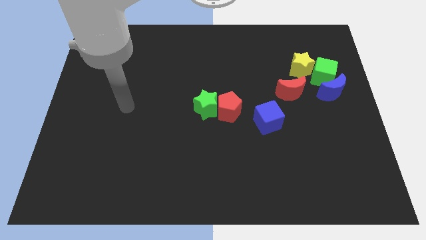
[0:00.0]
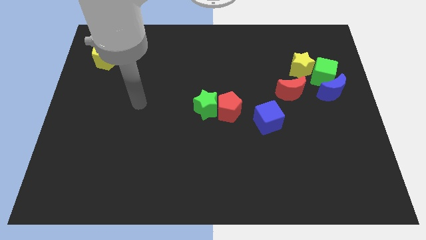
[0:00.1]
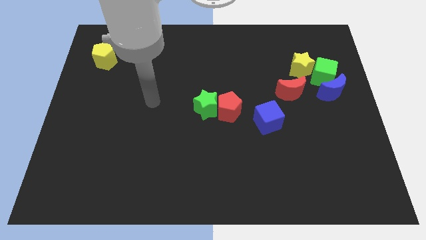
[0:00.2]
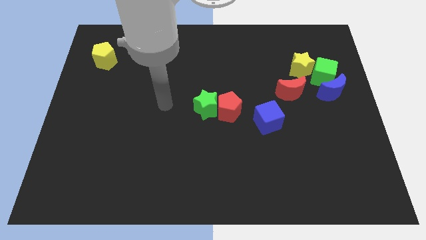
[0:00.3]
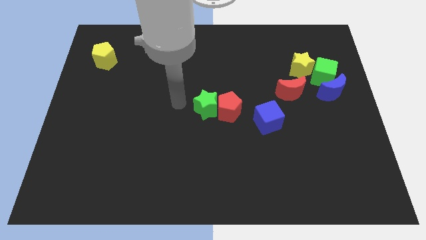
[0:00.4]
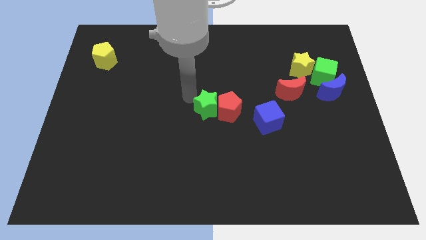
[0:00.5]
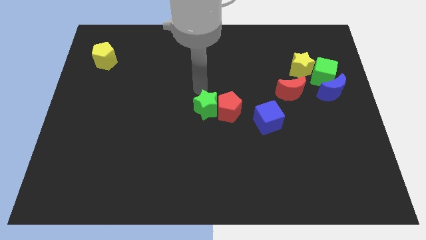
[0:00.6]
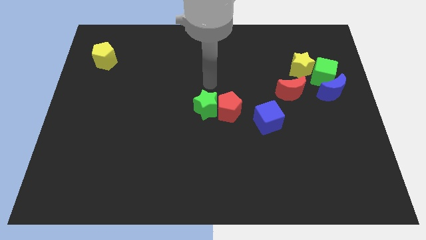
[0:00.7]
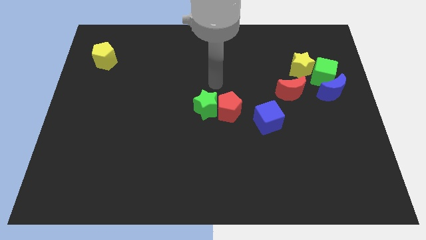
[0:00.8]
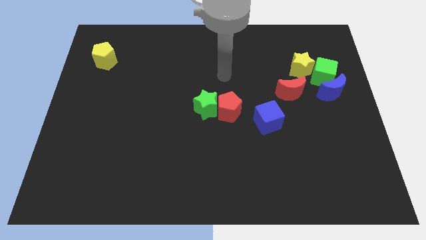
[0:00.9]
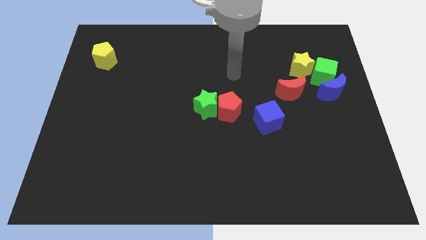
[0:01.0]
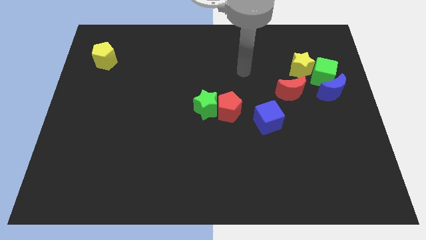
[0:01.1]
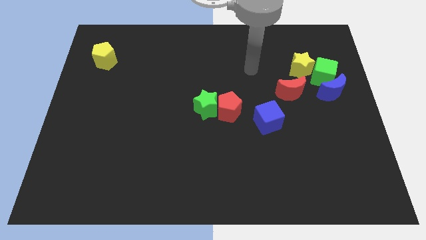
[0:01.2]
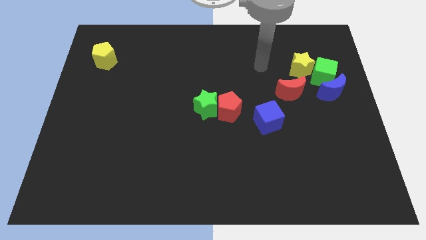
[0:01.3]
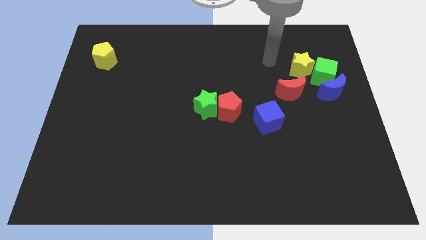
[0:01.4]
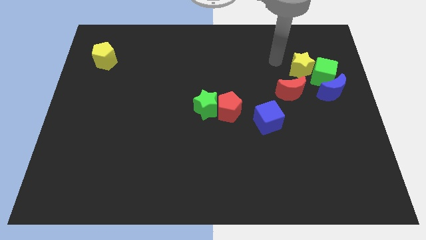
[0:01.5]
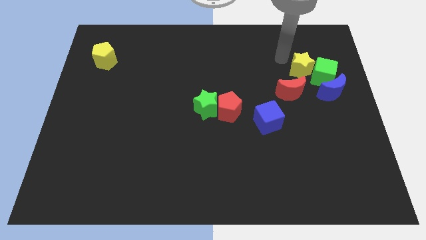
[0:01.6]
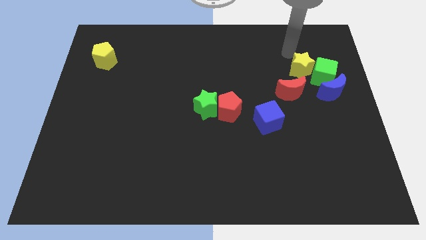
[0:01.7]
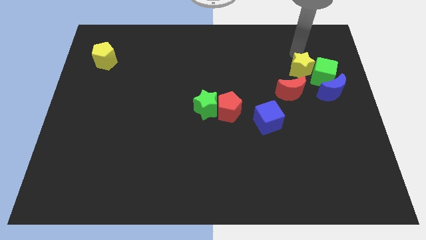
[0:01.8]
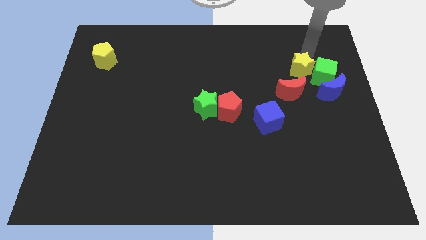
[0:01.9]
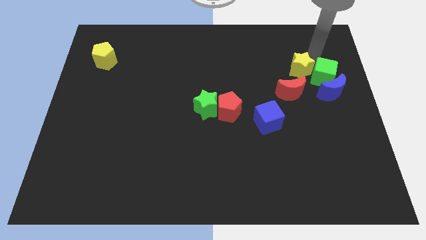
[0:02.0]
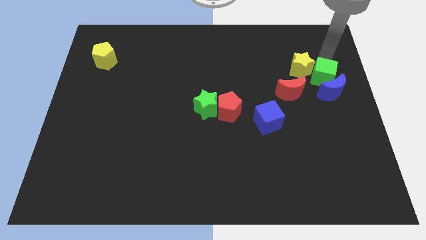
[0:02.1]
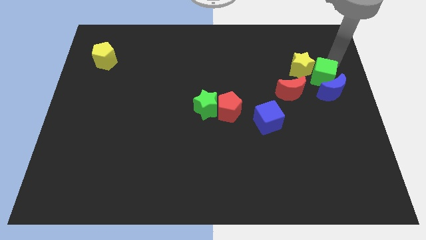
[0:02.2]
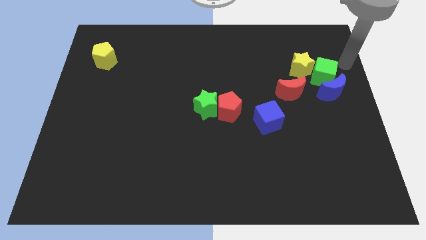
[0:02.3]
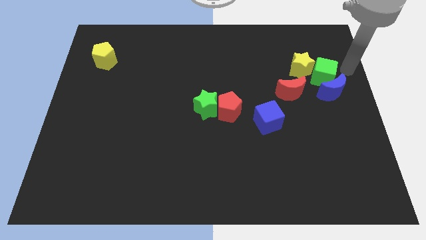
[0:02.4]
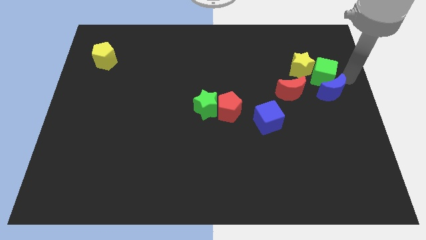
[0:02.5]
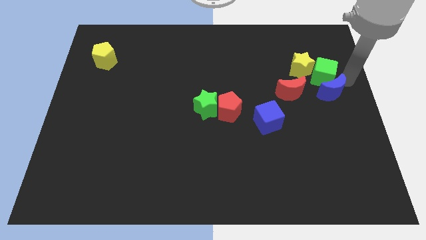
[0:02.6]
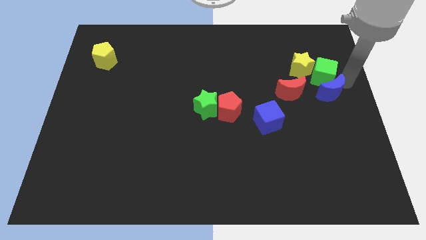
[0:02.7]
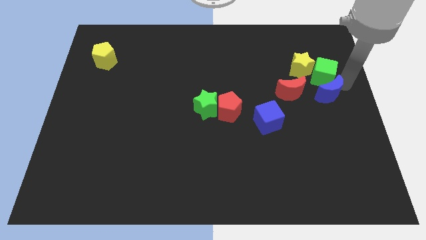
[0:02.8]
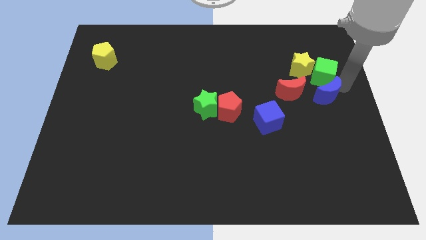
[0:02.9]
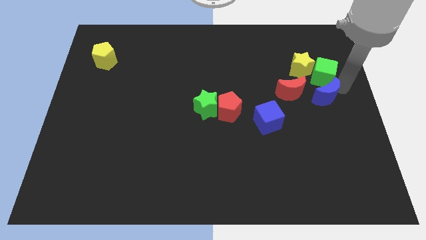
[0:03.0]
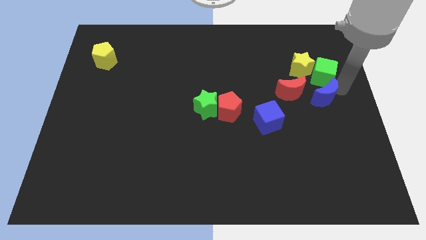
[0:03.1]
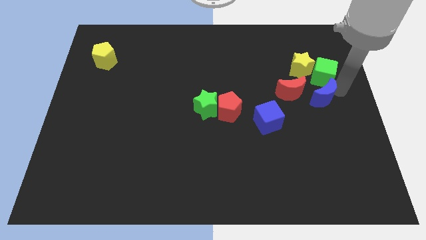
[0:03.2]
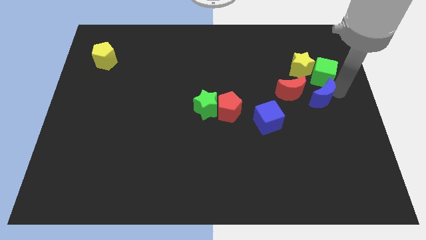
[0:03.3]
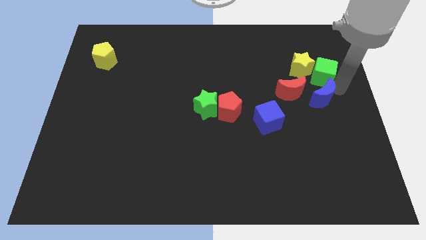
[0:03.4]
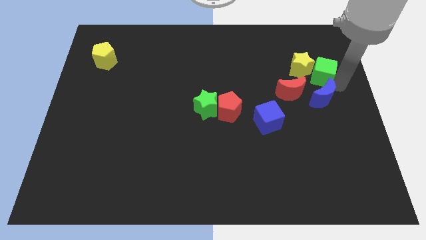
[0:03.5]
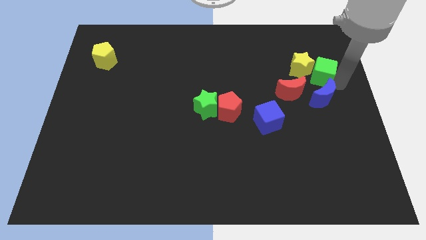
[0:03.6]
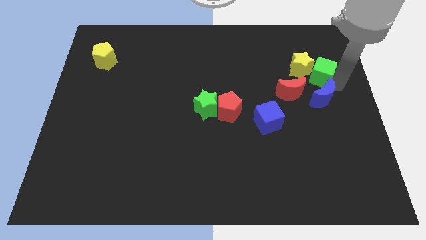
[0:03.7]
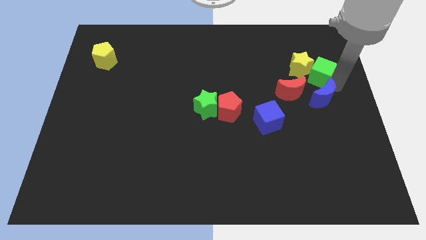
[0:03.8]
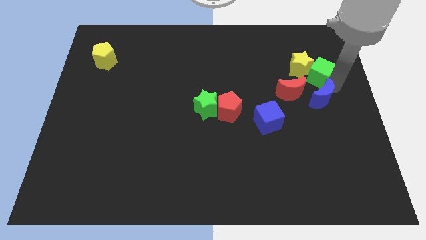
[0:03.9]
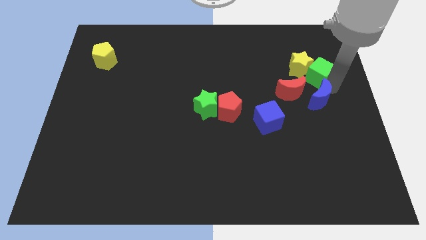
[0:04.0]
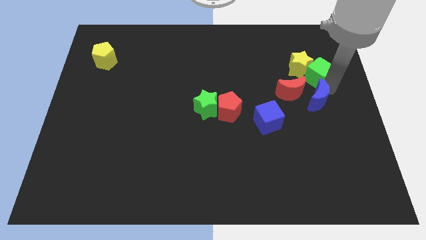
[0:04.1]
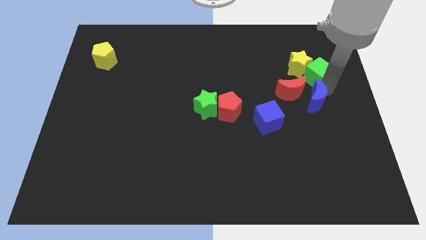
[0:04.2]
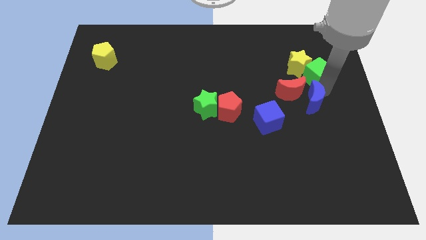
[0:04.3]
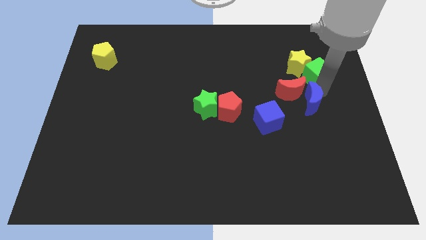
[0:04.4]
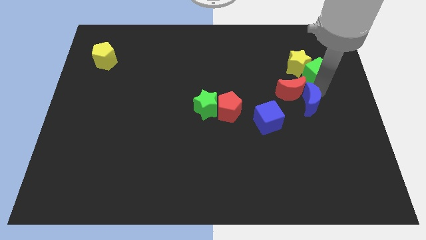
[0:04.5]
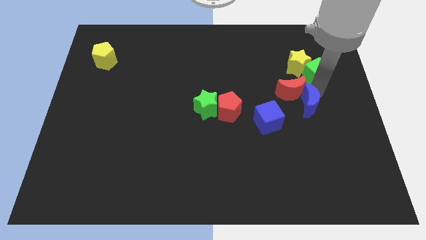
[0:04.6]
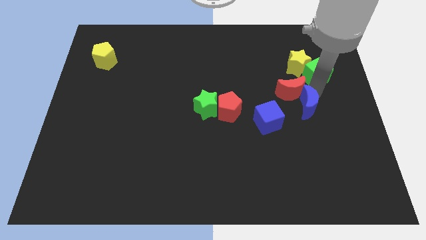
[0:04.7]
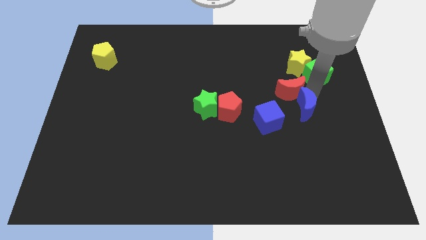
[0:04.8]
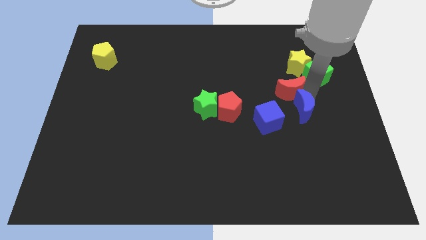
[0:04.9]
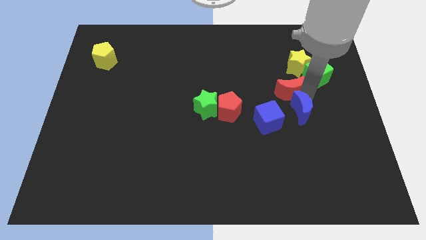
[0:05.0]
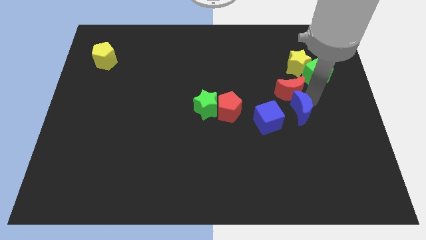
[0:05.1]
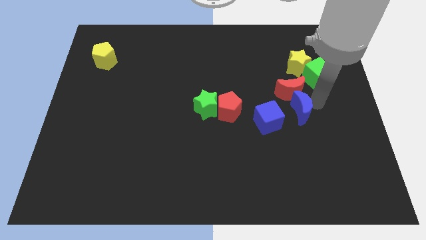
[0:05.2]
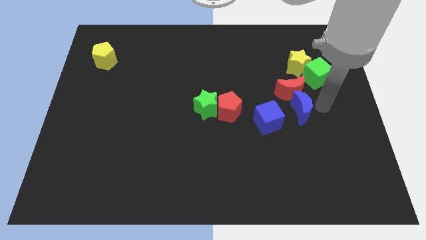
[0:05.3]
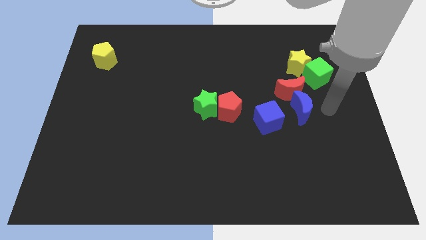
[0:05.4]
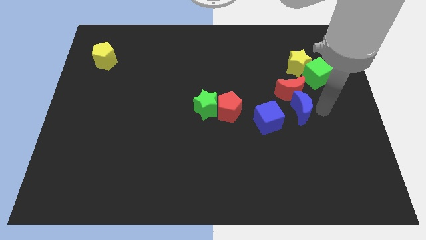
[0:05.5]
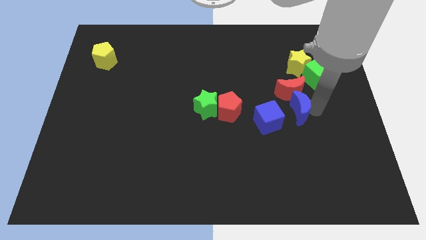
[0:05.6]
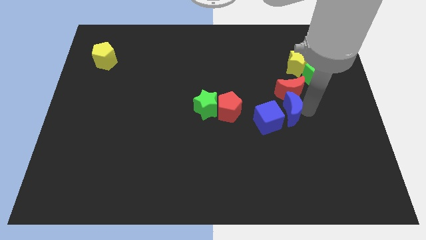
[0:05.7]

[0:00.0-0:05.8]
slide the blue moon right of the red pentagon
